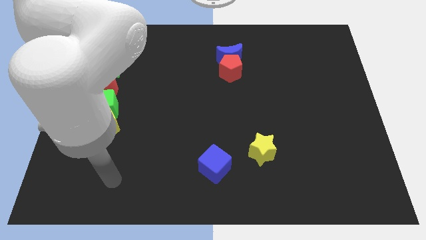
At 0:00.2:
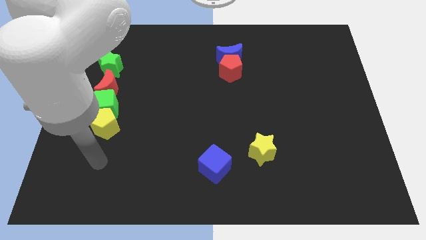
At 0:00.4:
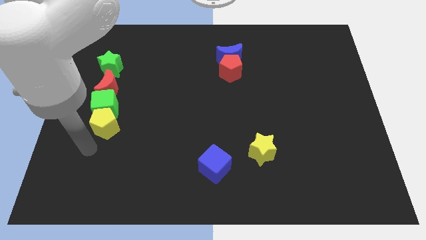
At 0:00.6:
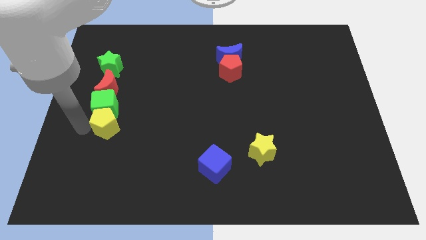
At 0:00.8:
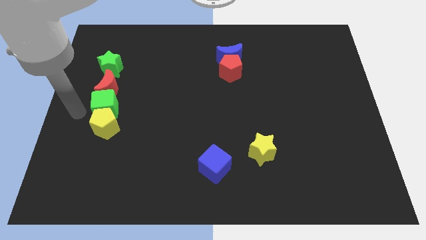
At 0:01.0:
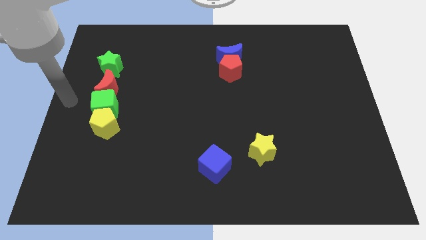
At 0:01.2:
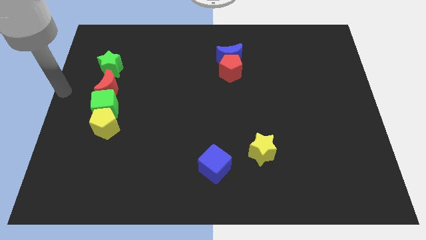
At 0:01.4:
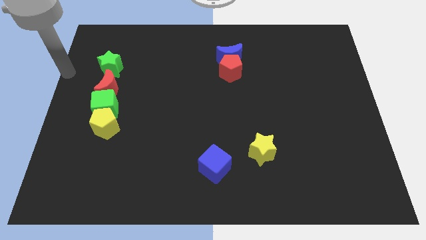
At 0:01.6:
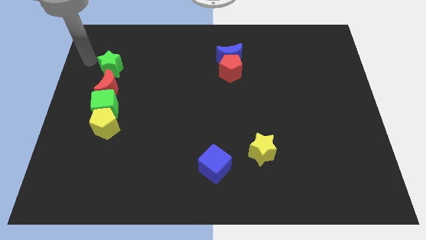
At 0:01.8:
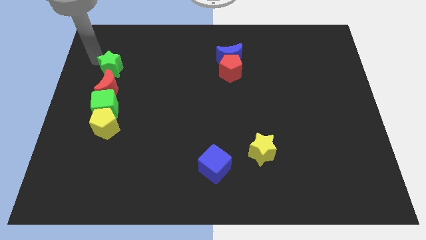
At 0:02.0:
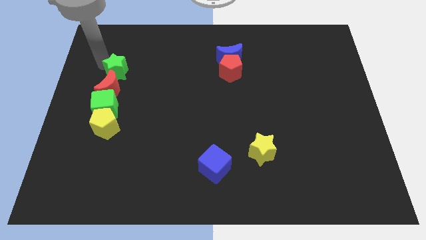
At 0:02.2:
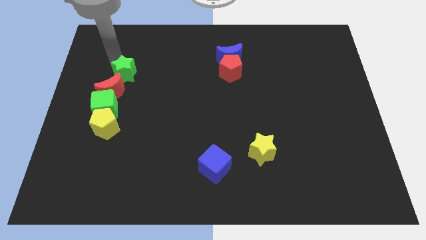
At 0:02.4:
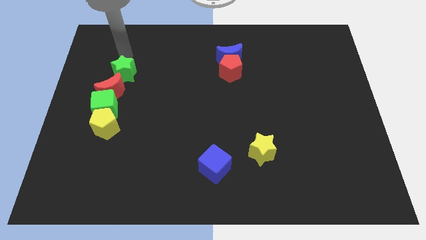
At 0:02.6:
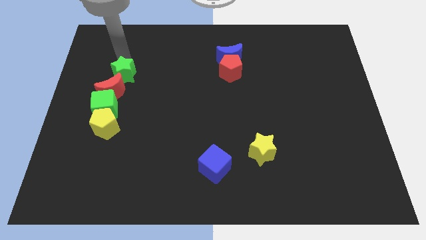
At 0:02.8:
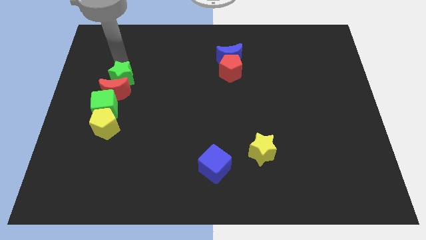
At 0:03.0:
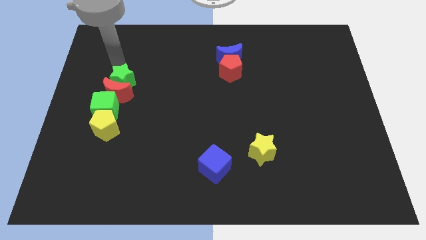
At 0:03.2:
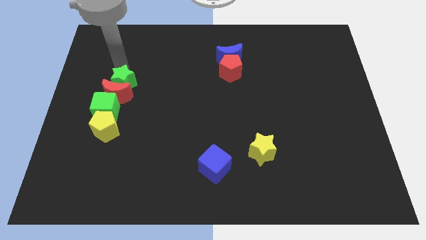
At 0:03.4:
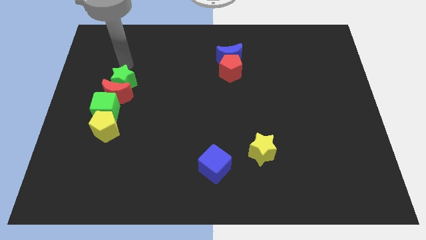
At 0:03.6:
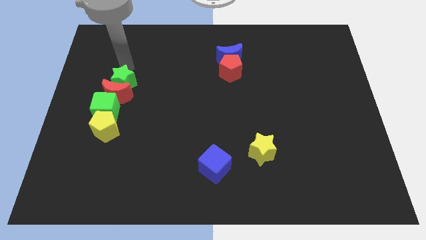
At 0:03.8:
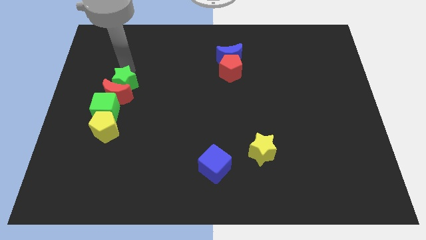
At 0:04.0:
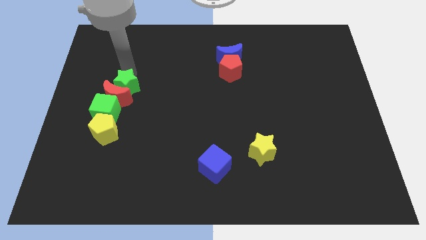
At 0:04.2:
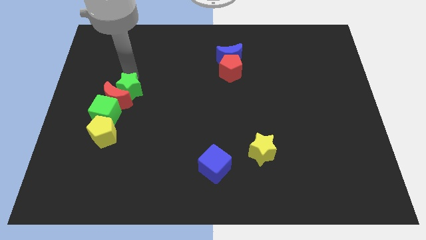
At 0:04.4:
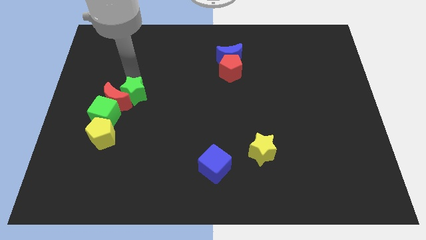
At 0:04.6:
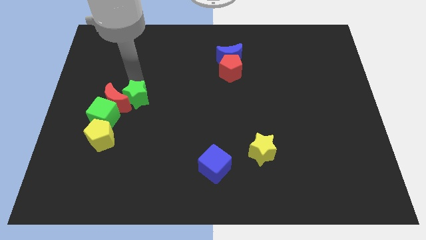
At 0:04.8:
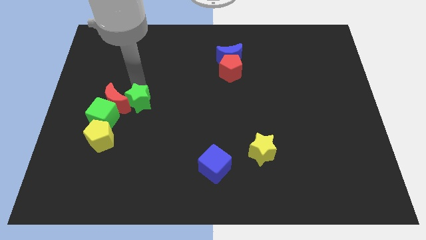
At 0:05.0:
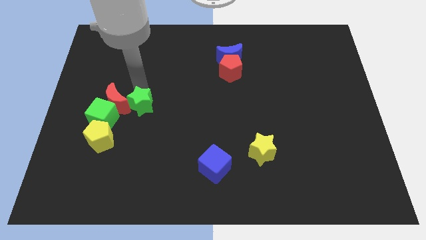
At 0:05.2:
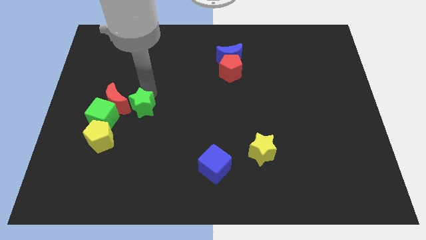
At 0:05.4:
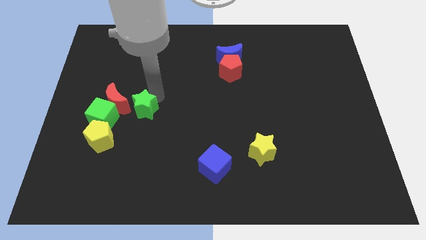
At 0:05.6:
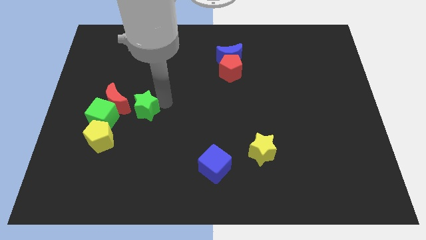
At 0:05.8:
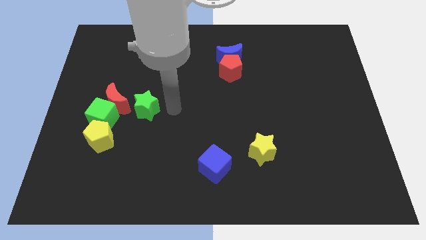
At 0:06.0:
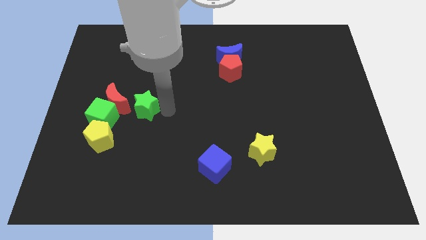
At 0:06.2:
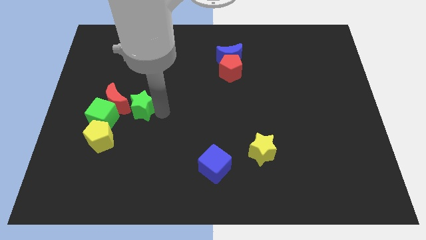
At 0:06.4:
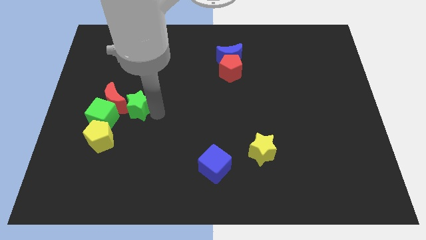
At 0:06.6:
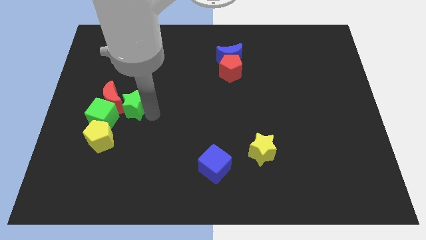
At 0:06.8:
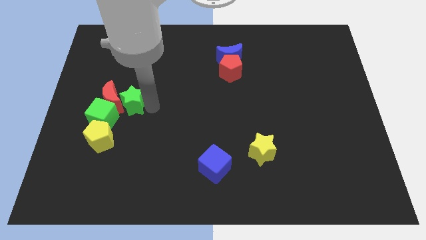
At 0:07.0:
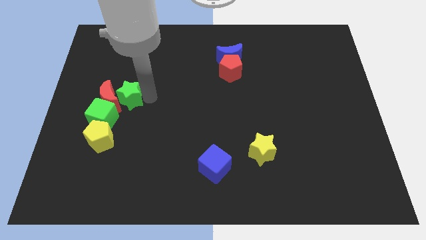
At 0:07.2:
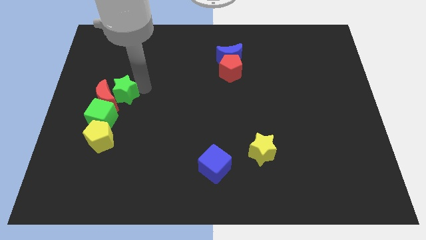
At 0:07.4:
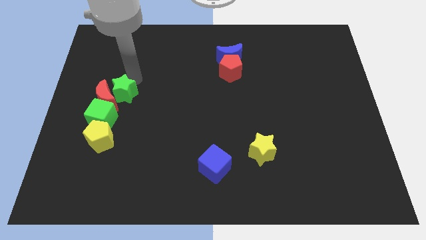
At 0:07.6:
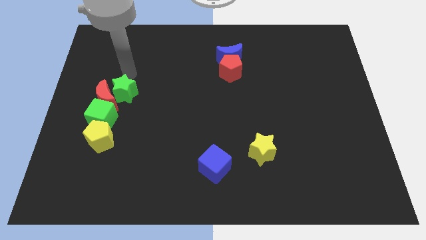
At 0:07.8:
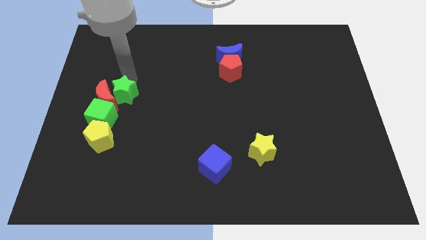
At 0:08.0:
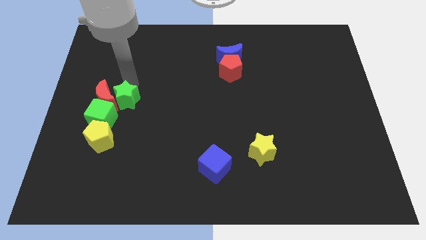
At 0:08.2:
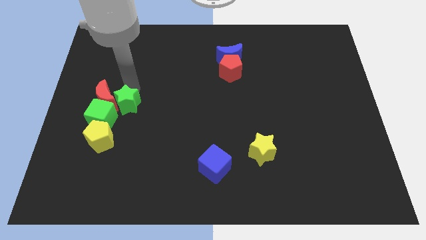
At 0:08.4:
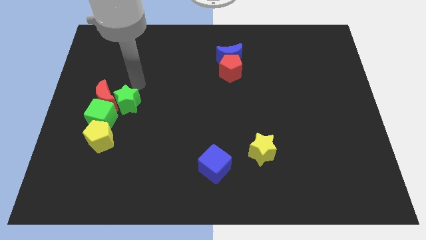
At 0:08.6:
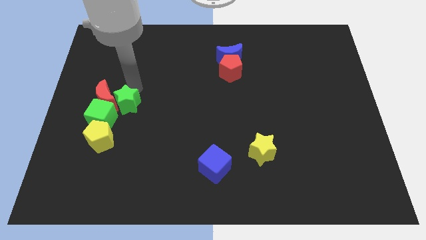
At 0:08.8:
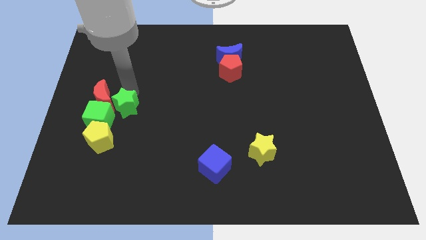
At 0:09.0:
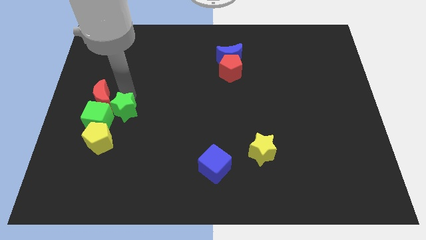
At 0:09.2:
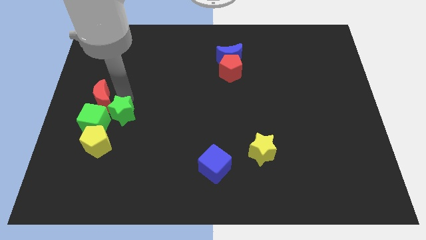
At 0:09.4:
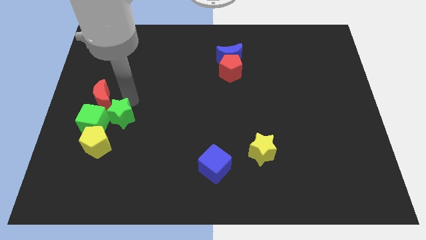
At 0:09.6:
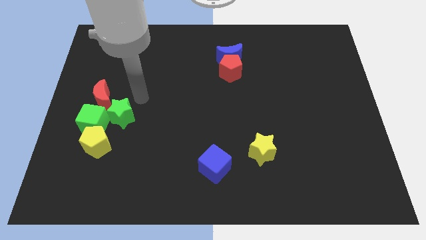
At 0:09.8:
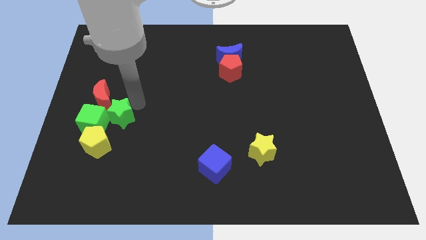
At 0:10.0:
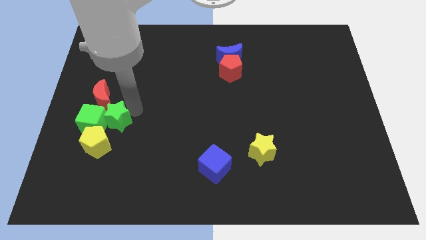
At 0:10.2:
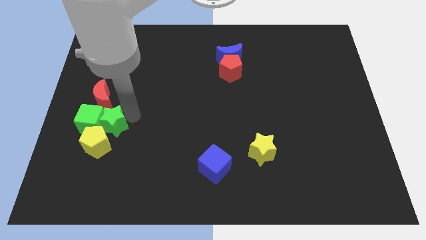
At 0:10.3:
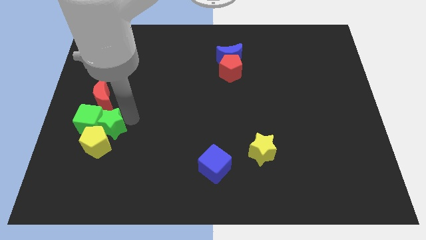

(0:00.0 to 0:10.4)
move the green star towards the yellow pentagon

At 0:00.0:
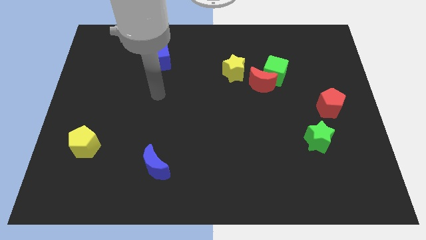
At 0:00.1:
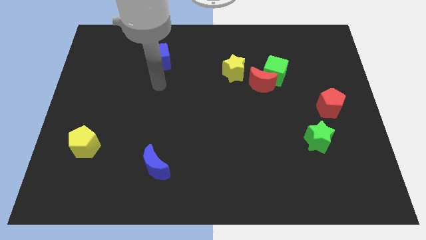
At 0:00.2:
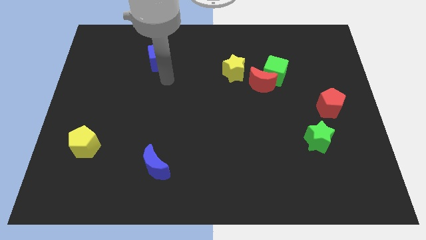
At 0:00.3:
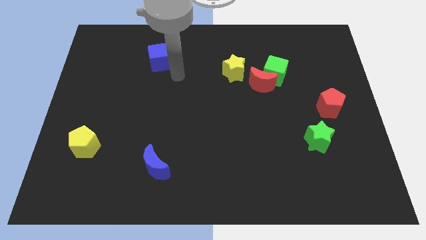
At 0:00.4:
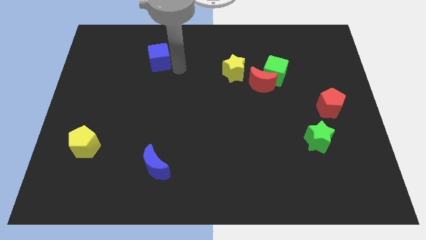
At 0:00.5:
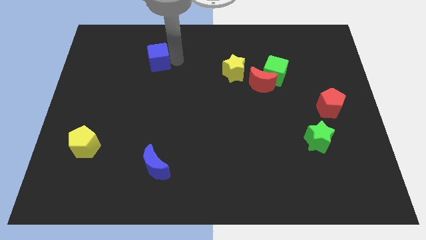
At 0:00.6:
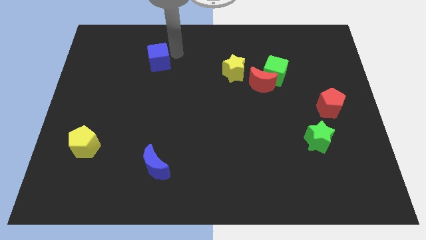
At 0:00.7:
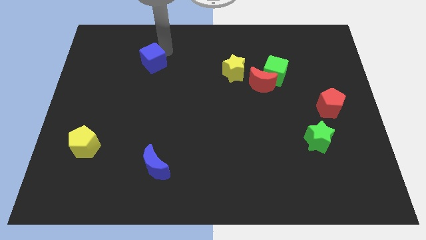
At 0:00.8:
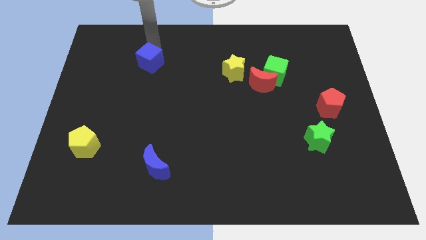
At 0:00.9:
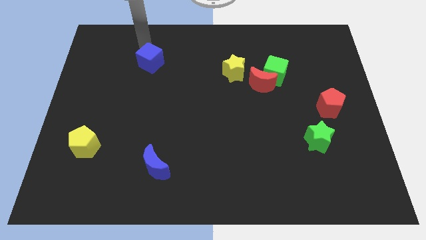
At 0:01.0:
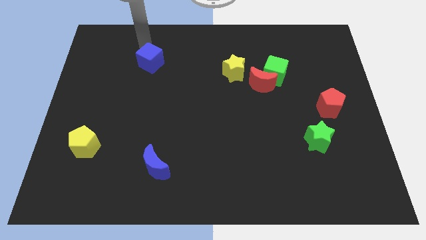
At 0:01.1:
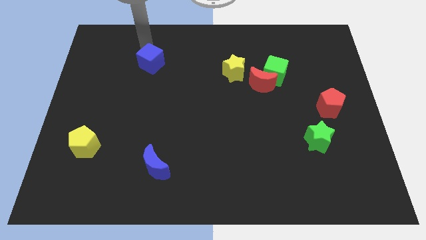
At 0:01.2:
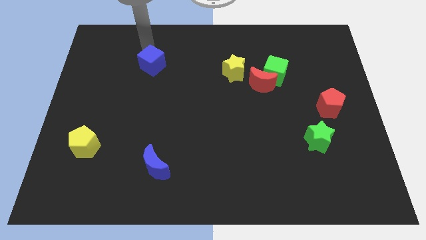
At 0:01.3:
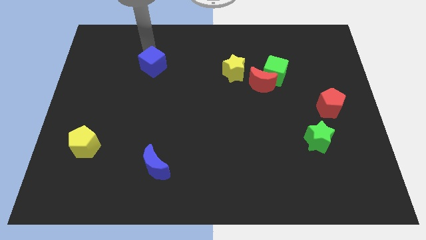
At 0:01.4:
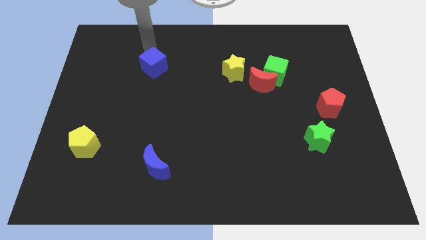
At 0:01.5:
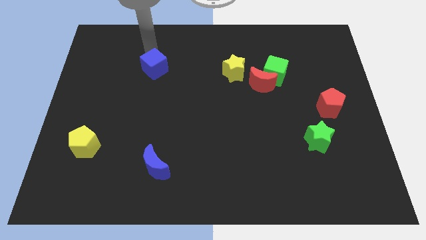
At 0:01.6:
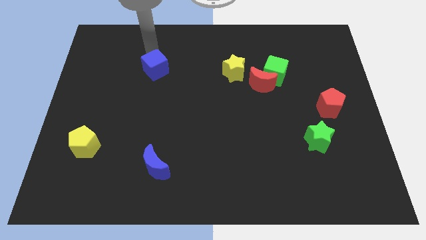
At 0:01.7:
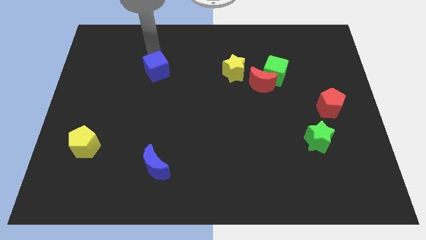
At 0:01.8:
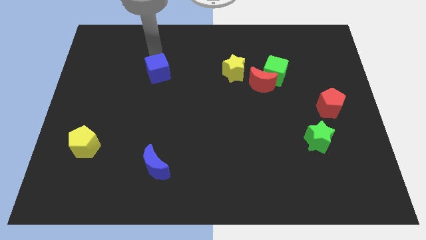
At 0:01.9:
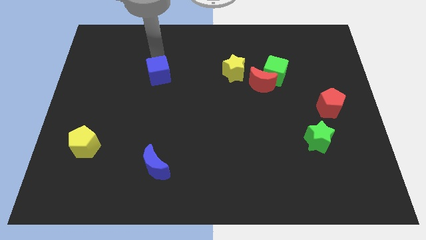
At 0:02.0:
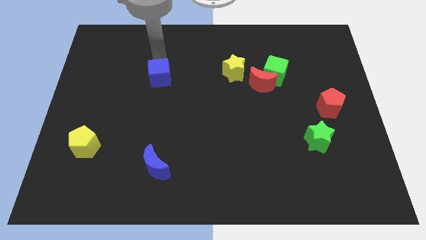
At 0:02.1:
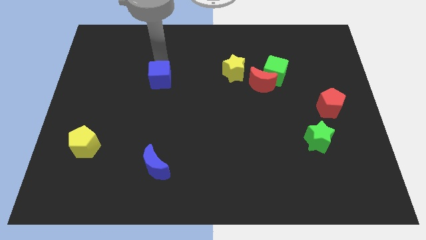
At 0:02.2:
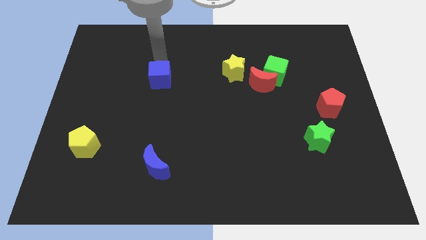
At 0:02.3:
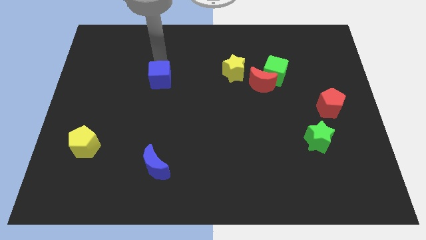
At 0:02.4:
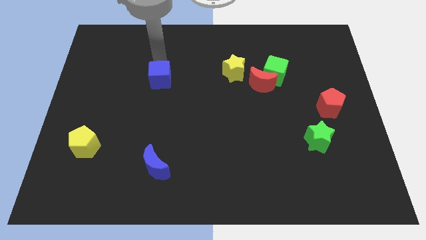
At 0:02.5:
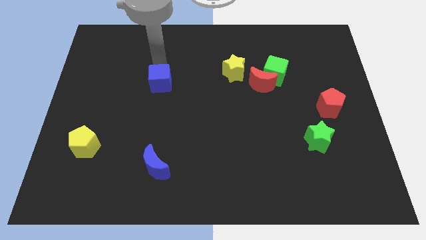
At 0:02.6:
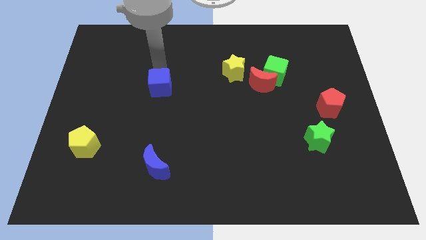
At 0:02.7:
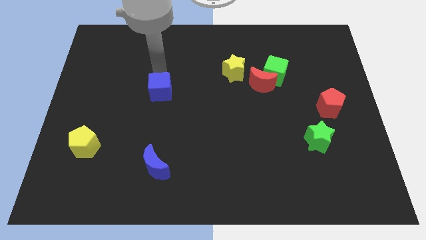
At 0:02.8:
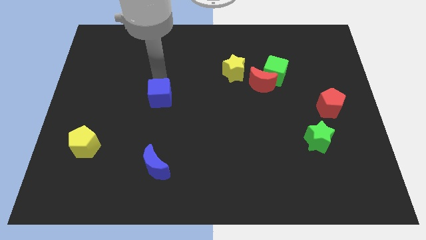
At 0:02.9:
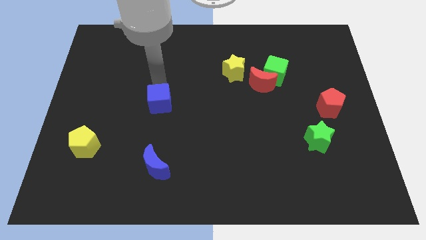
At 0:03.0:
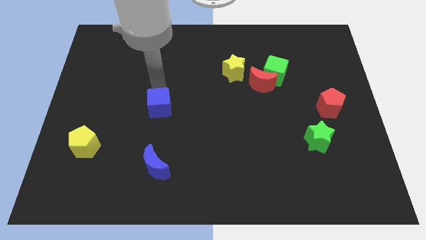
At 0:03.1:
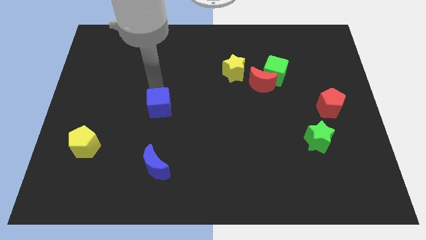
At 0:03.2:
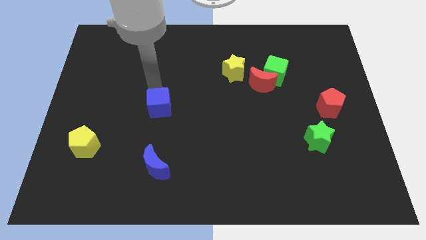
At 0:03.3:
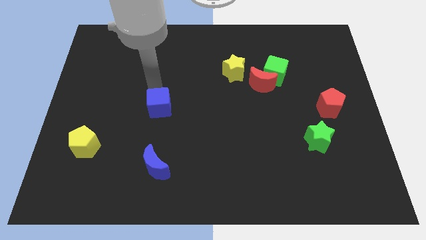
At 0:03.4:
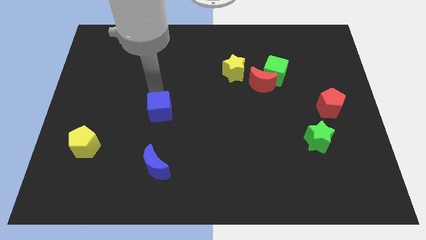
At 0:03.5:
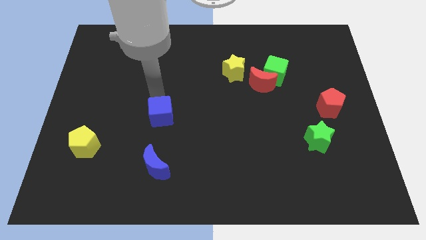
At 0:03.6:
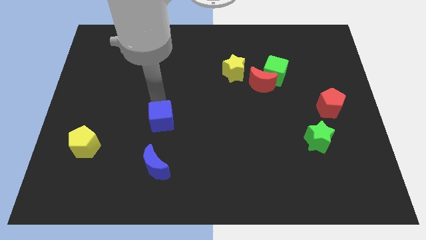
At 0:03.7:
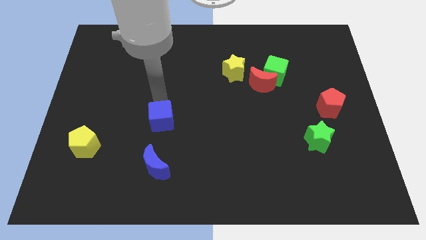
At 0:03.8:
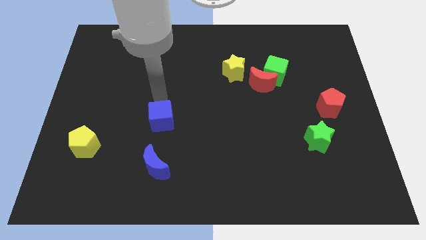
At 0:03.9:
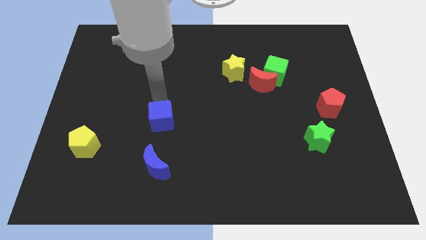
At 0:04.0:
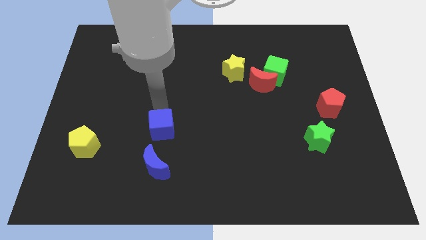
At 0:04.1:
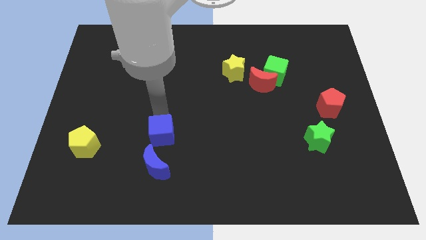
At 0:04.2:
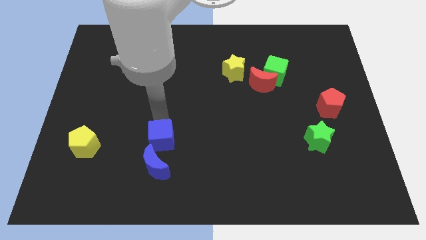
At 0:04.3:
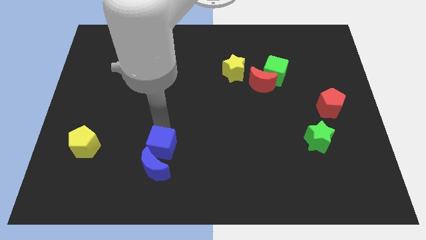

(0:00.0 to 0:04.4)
push the blue cube next to the blue moon
